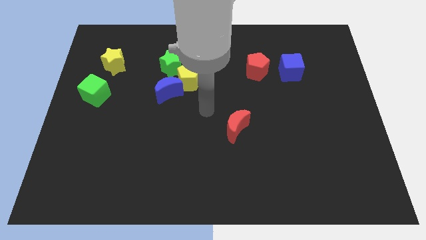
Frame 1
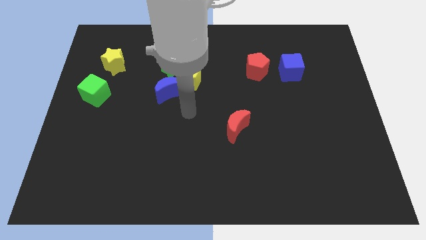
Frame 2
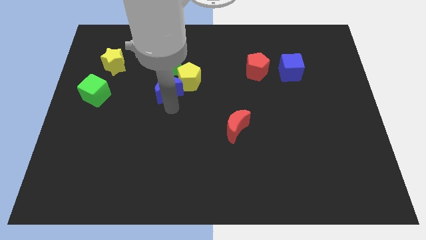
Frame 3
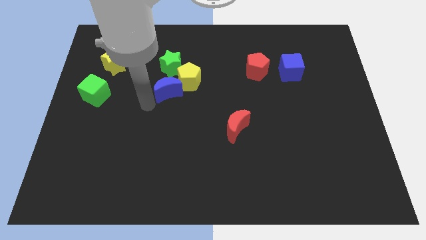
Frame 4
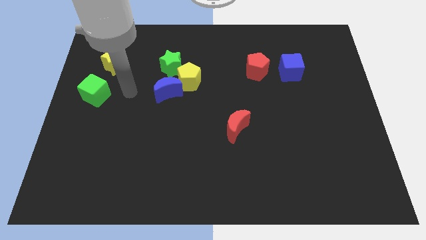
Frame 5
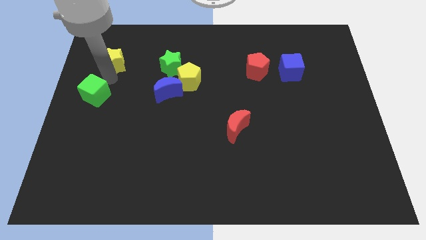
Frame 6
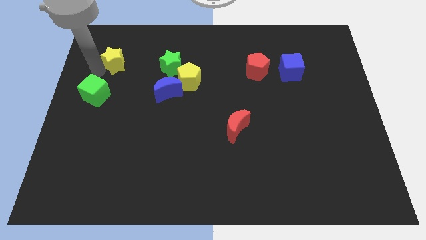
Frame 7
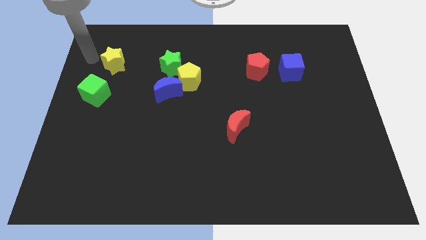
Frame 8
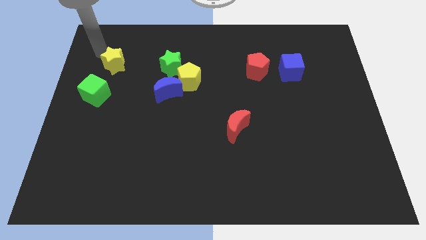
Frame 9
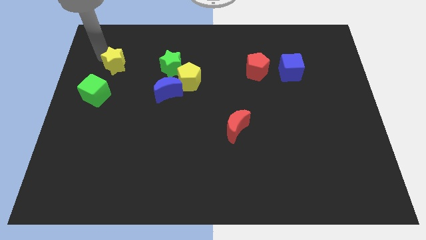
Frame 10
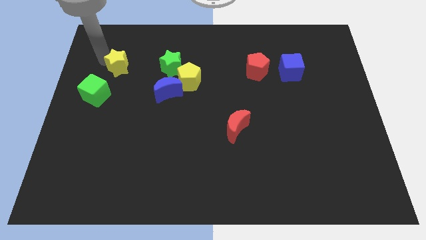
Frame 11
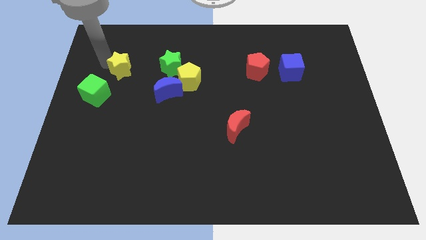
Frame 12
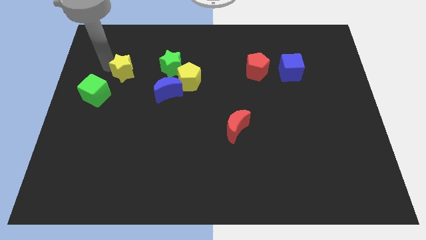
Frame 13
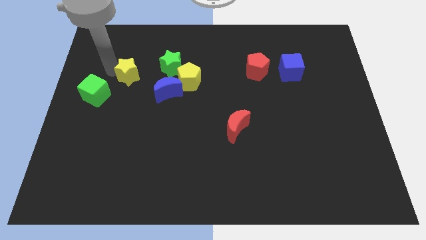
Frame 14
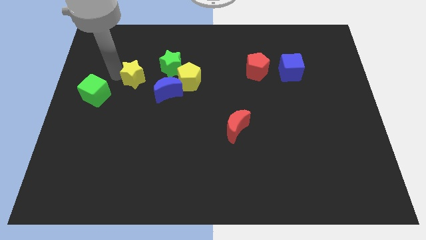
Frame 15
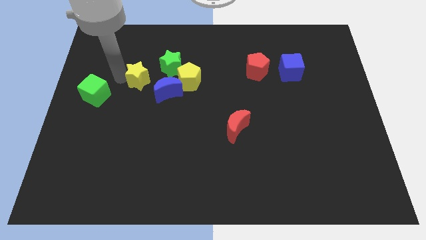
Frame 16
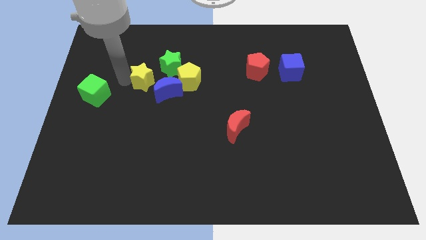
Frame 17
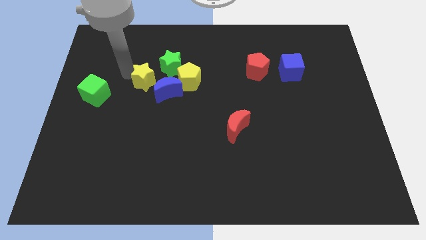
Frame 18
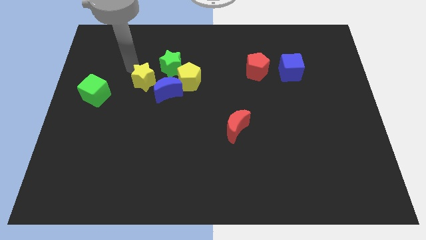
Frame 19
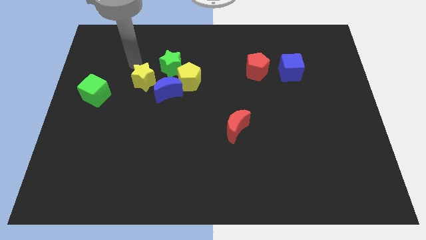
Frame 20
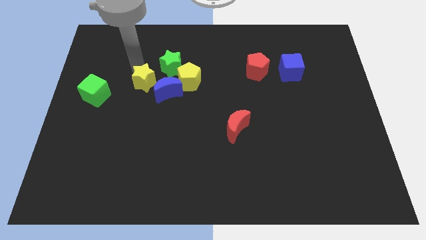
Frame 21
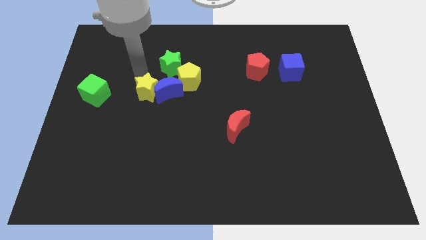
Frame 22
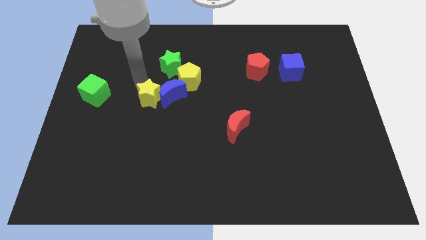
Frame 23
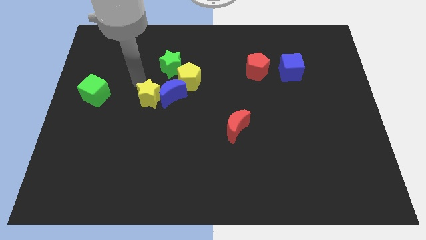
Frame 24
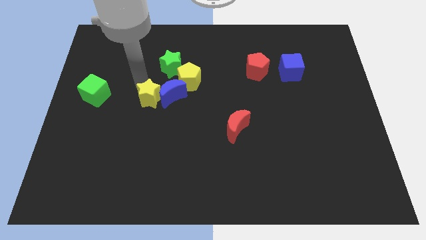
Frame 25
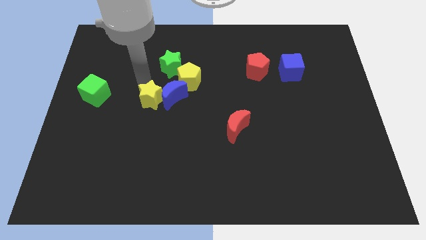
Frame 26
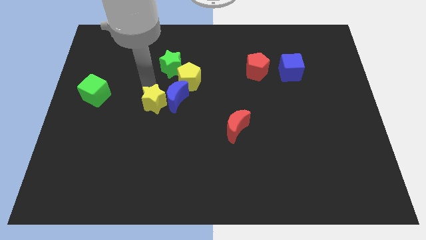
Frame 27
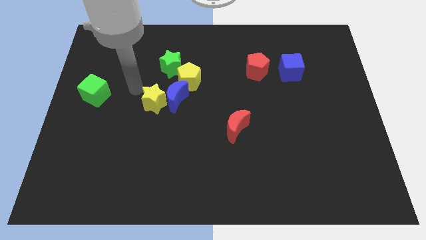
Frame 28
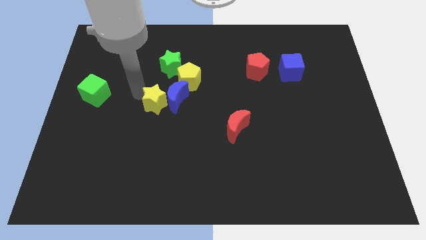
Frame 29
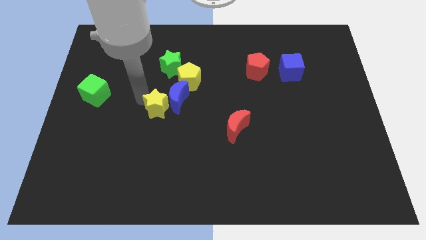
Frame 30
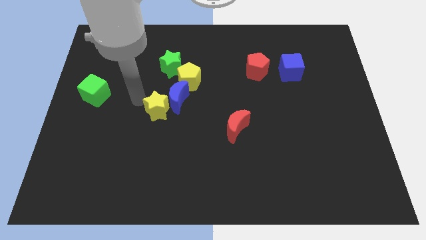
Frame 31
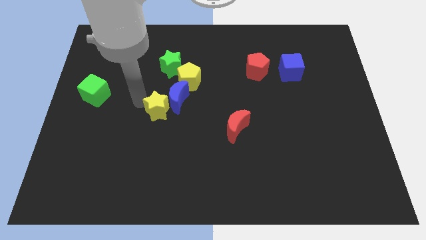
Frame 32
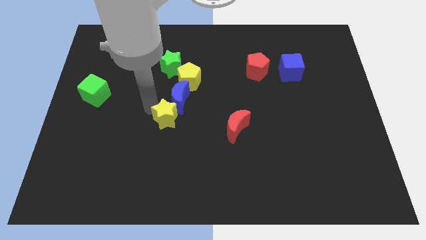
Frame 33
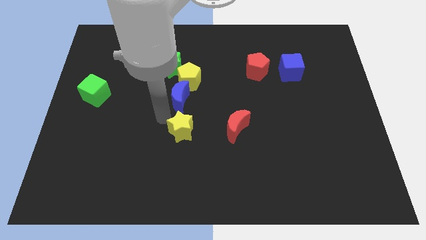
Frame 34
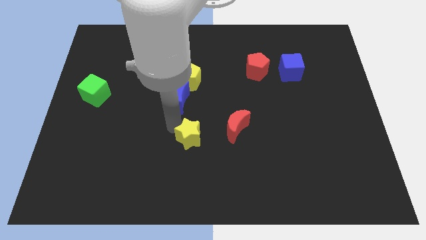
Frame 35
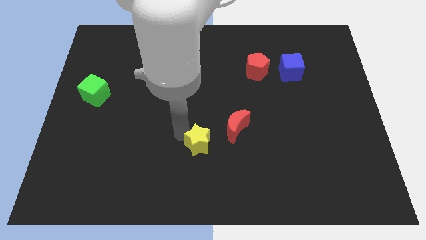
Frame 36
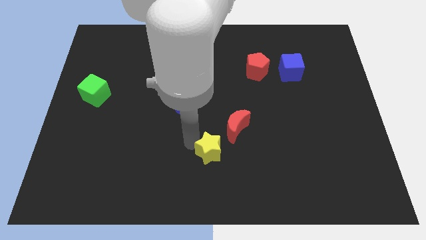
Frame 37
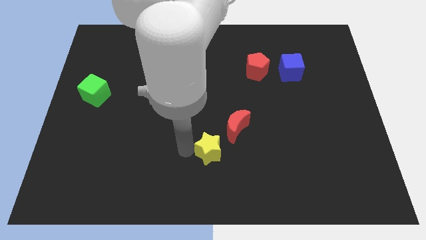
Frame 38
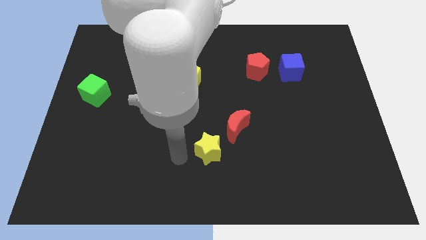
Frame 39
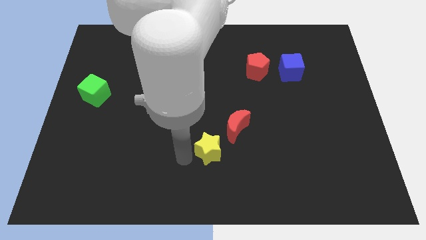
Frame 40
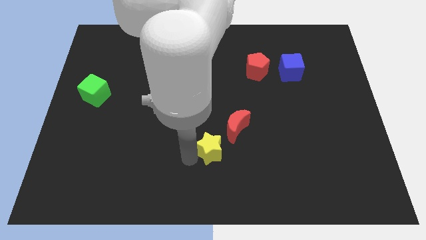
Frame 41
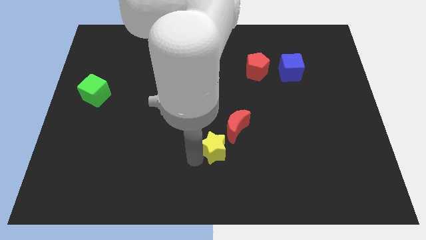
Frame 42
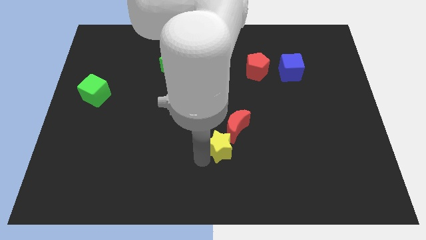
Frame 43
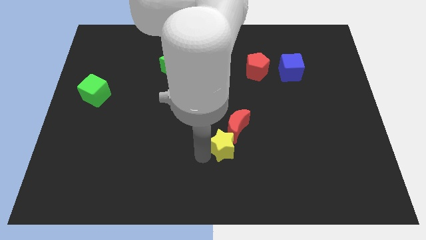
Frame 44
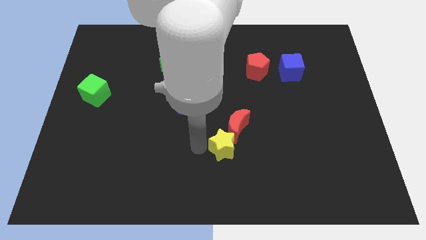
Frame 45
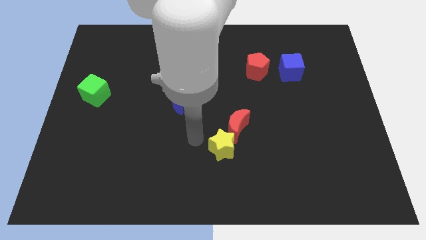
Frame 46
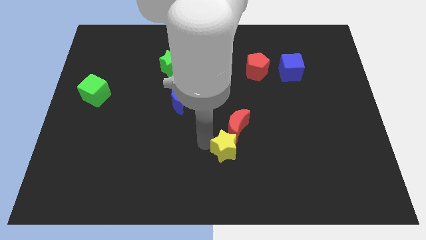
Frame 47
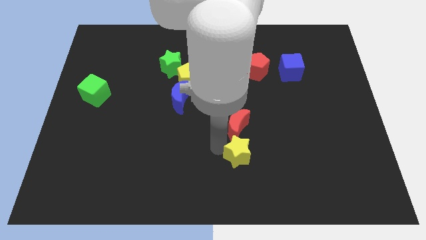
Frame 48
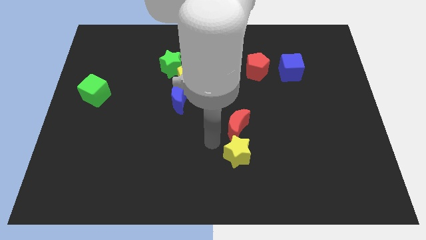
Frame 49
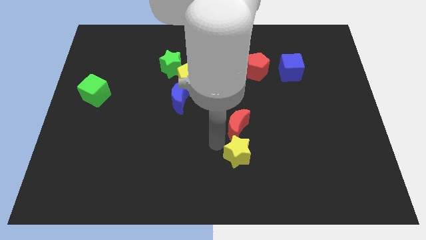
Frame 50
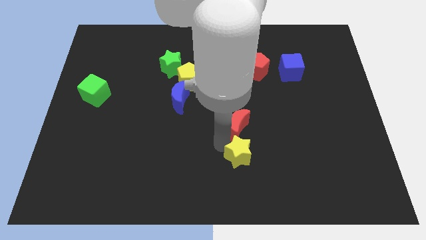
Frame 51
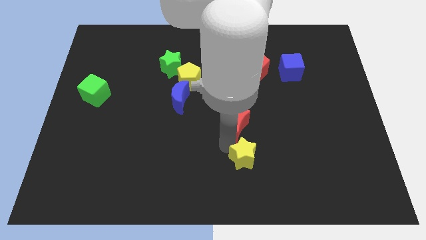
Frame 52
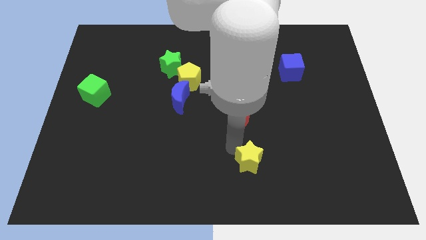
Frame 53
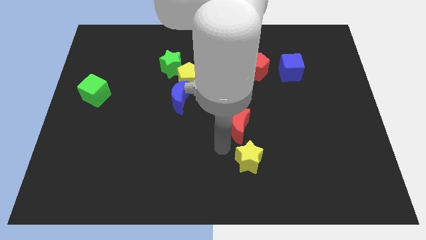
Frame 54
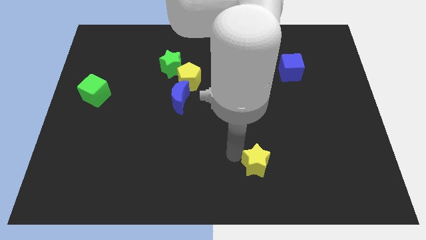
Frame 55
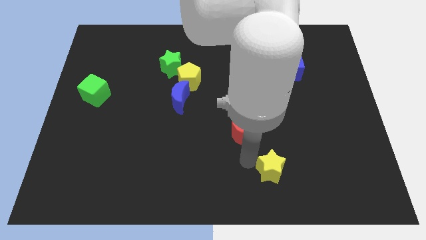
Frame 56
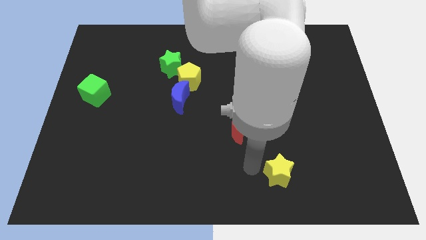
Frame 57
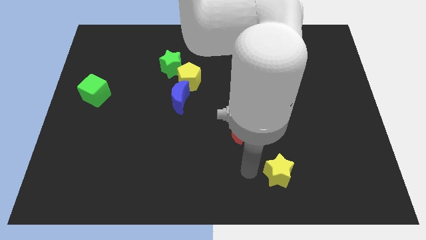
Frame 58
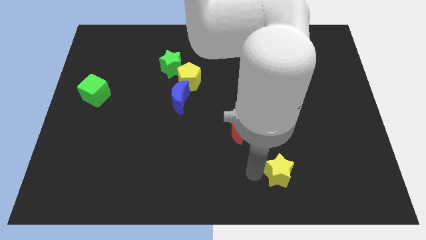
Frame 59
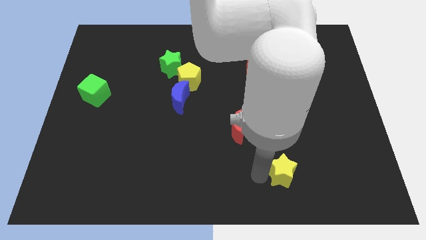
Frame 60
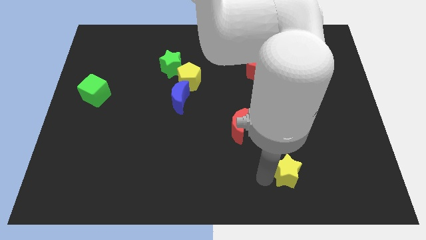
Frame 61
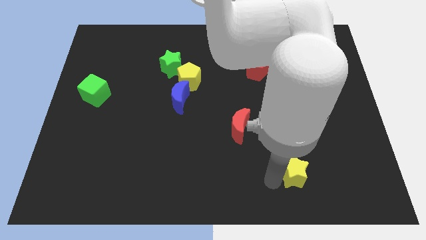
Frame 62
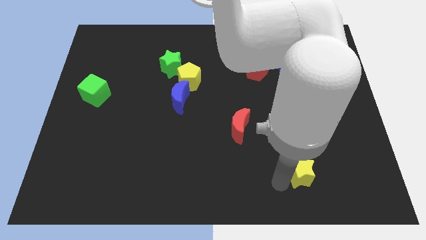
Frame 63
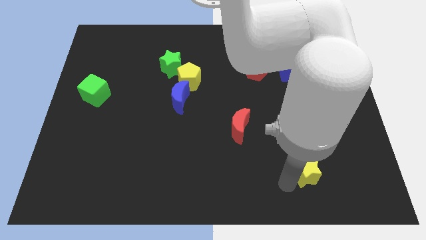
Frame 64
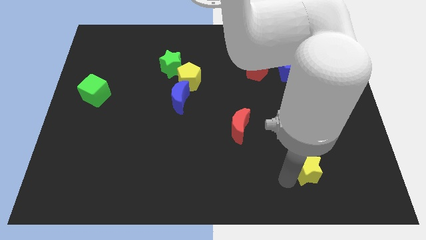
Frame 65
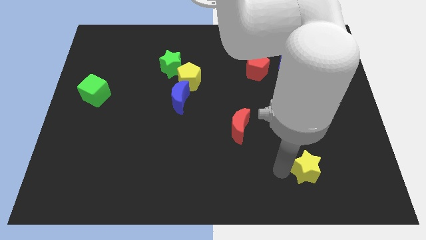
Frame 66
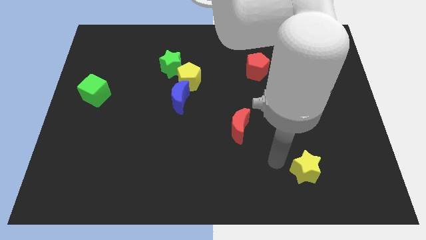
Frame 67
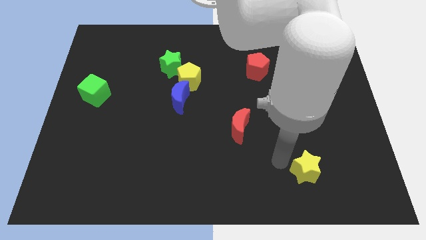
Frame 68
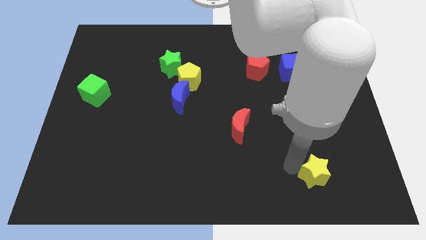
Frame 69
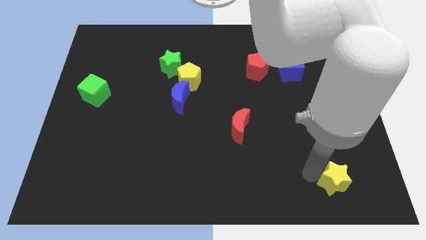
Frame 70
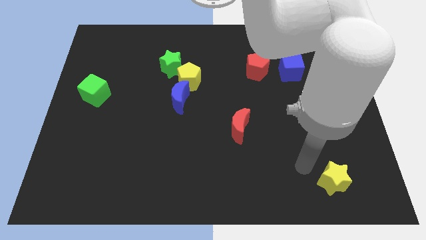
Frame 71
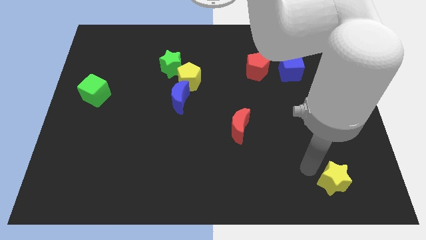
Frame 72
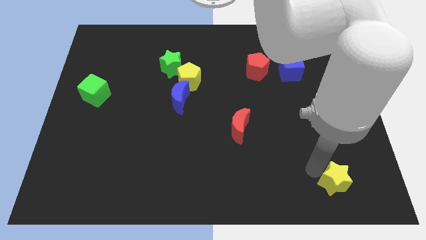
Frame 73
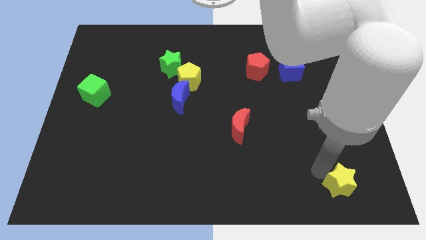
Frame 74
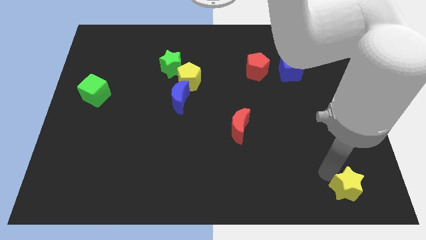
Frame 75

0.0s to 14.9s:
push the yellow star to the bottom right of the board

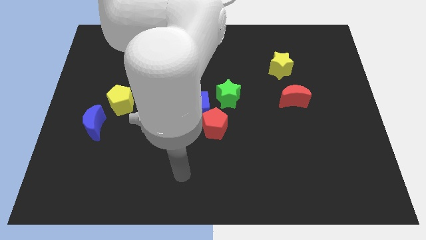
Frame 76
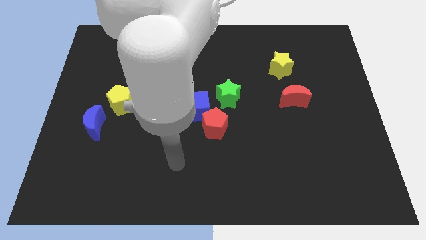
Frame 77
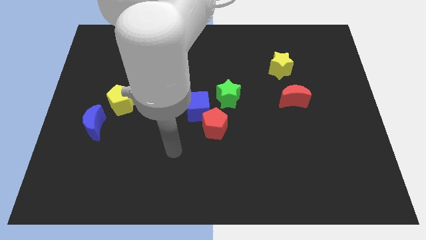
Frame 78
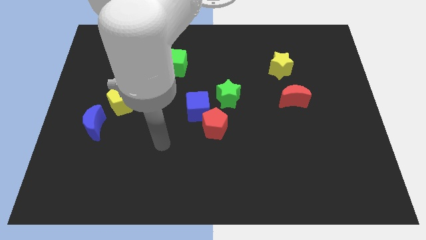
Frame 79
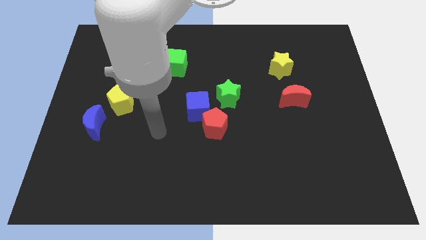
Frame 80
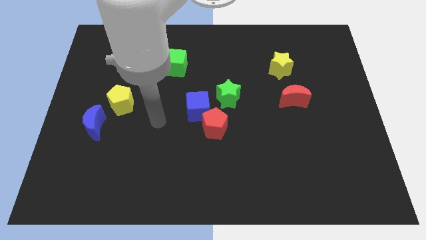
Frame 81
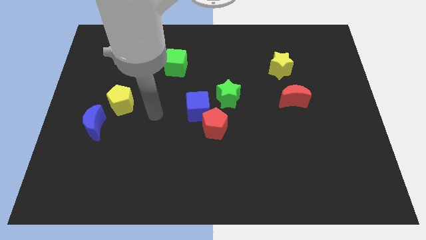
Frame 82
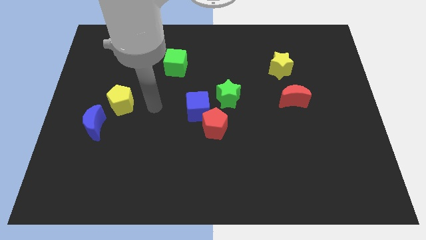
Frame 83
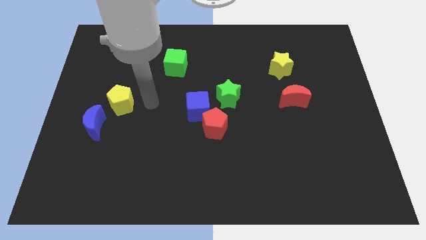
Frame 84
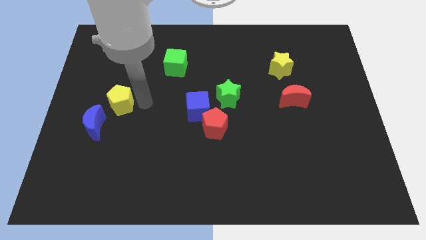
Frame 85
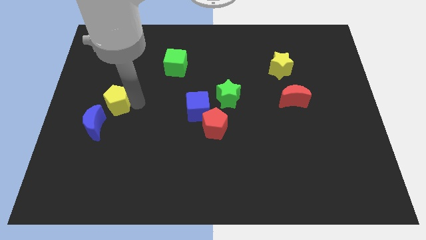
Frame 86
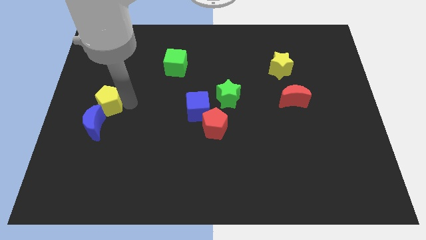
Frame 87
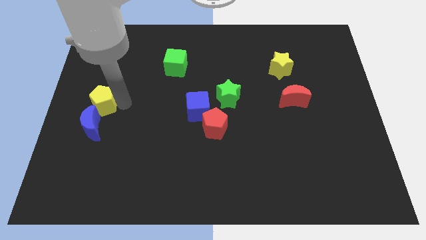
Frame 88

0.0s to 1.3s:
slide the yellow pentagon to the left side of the board
